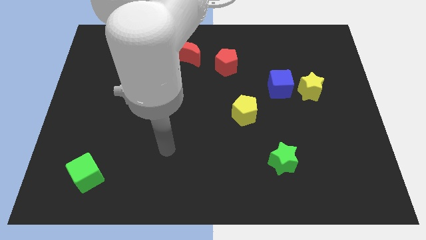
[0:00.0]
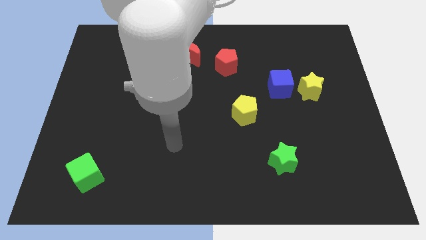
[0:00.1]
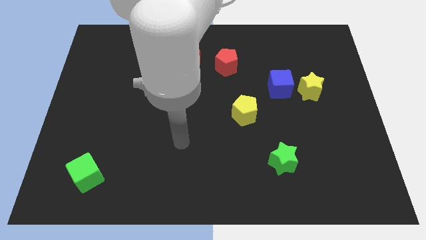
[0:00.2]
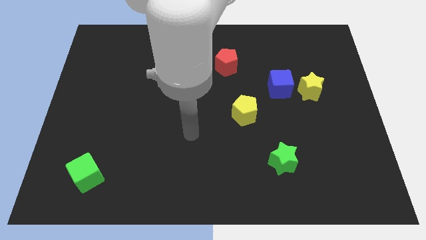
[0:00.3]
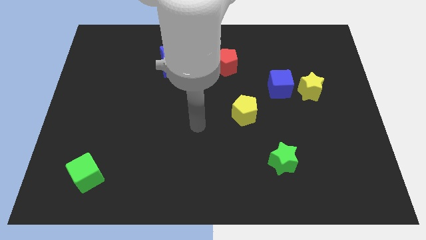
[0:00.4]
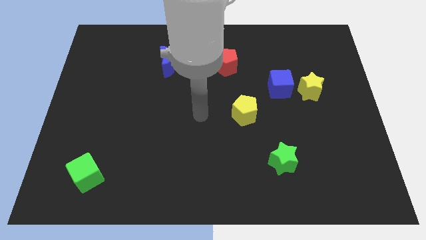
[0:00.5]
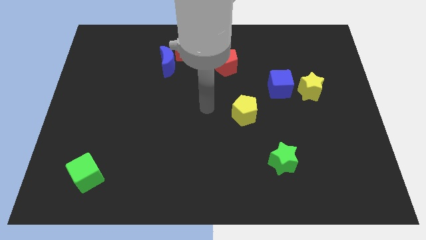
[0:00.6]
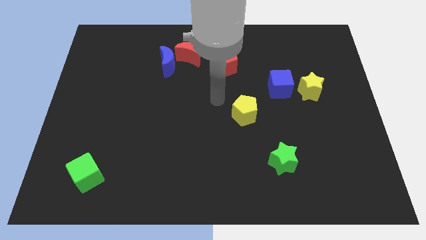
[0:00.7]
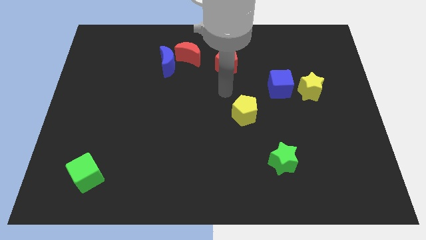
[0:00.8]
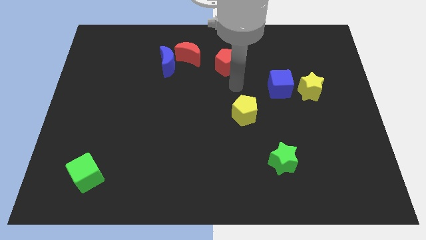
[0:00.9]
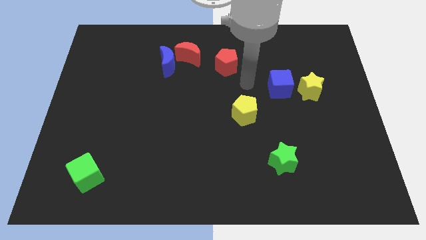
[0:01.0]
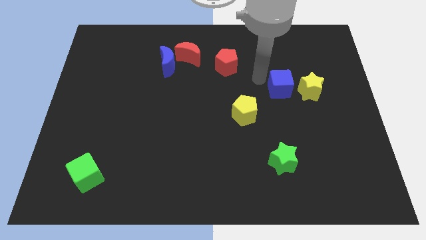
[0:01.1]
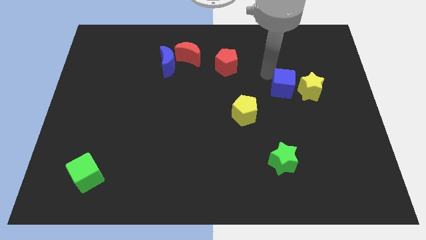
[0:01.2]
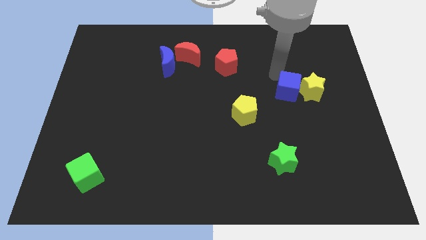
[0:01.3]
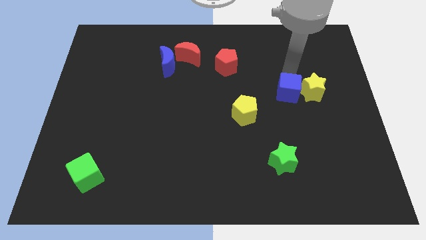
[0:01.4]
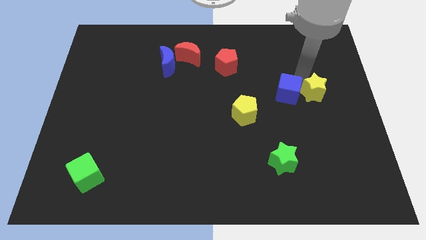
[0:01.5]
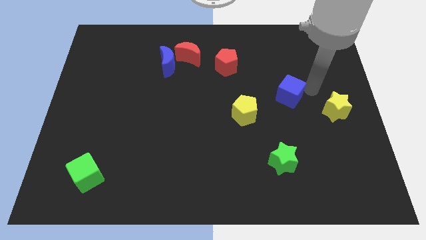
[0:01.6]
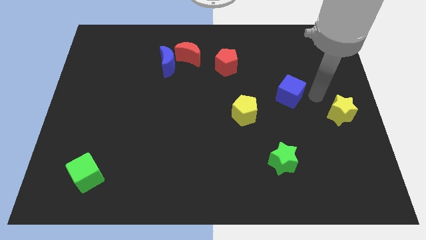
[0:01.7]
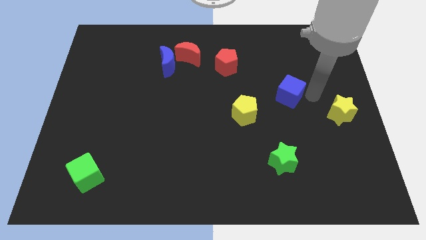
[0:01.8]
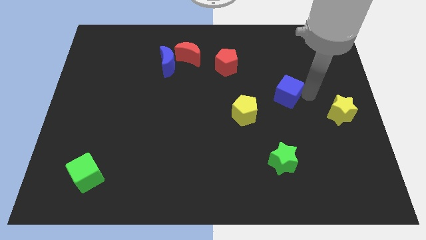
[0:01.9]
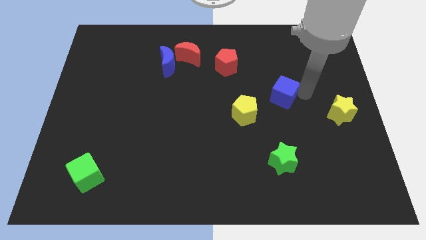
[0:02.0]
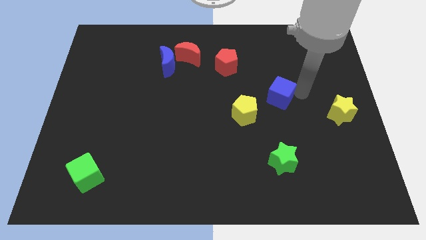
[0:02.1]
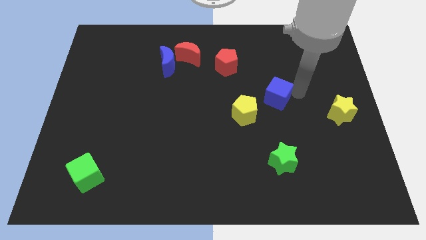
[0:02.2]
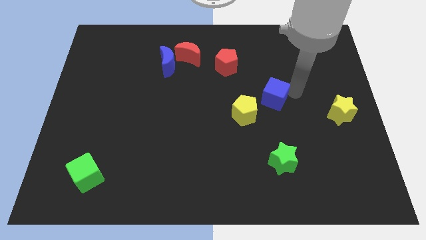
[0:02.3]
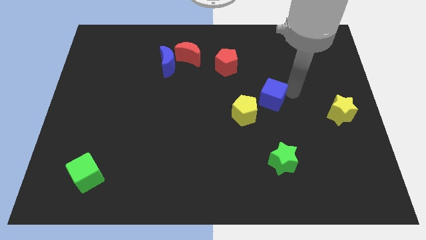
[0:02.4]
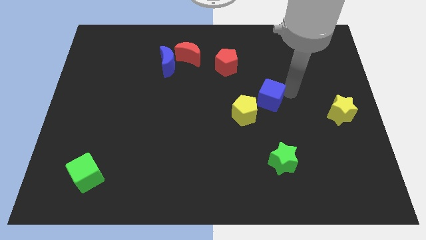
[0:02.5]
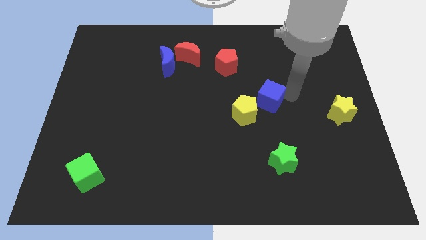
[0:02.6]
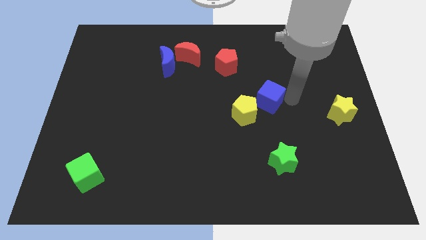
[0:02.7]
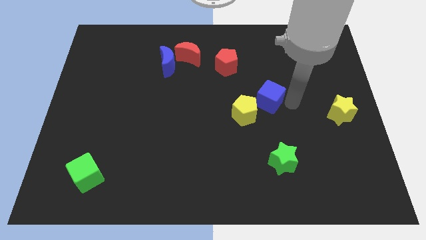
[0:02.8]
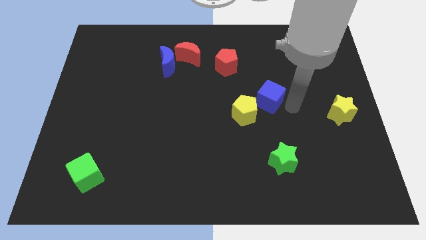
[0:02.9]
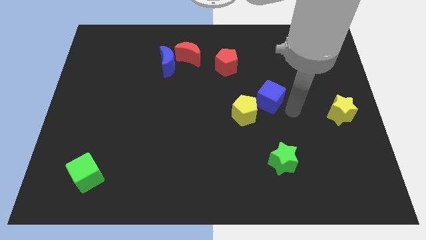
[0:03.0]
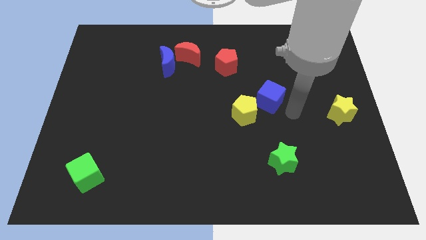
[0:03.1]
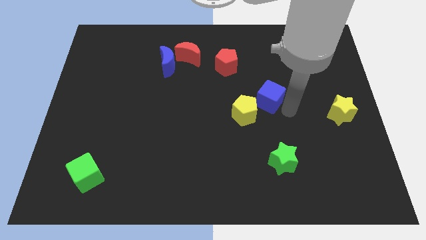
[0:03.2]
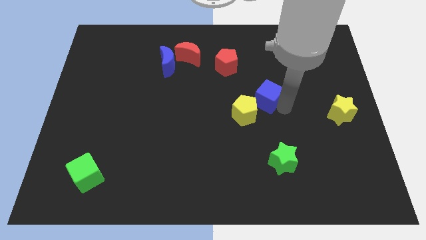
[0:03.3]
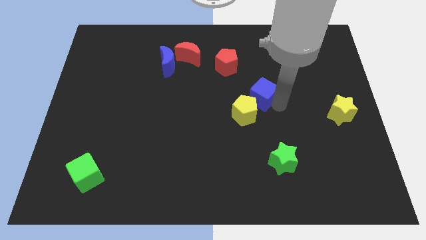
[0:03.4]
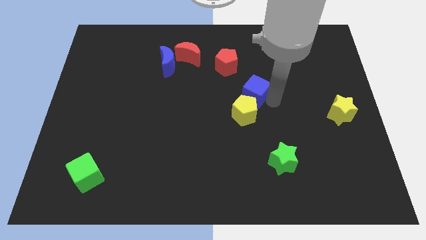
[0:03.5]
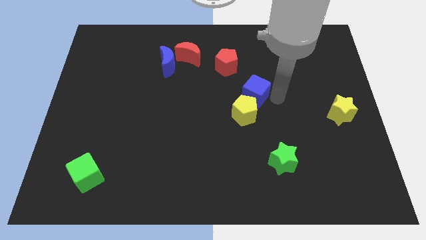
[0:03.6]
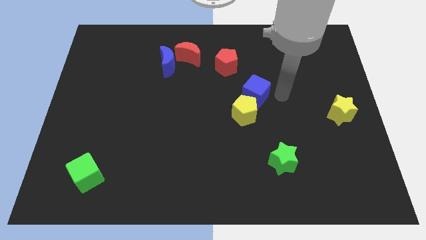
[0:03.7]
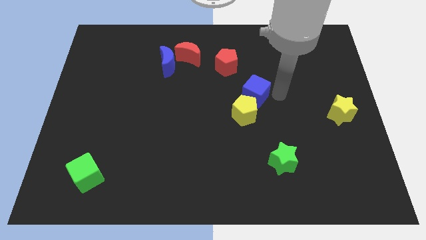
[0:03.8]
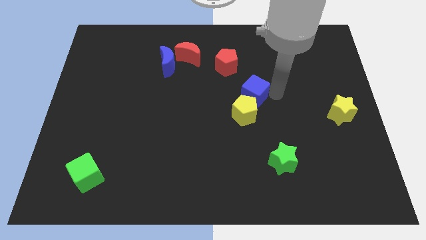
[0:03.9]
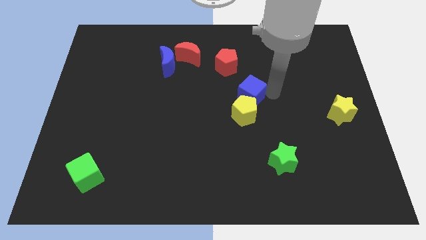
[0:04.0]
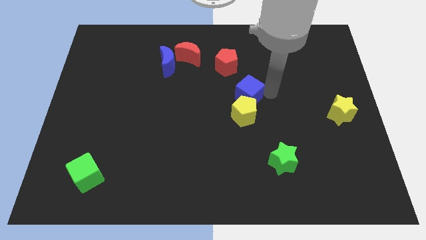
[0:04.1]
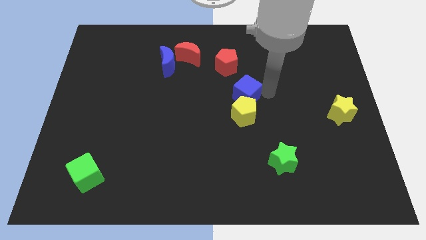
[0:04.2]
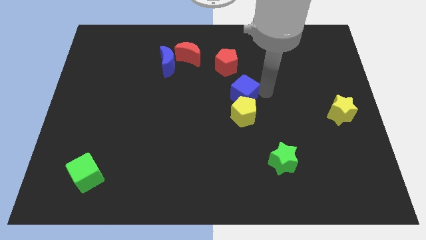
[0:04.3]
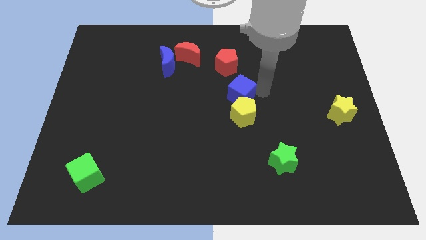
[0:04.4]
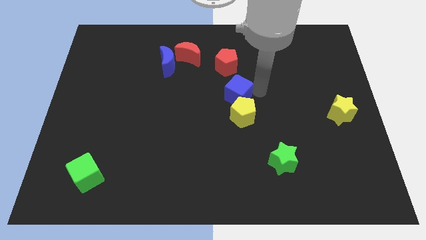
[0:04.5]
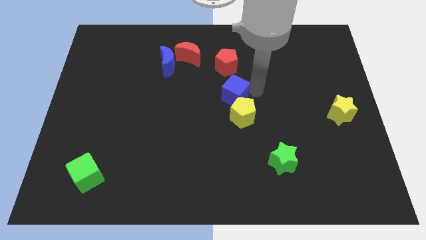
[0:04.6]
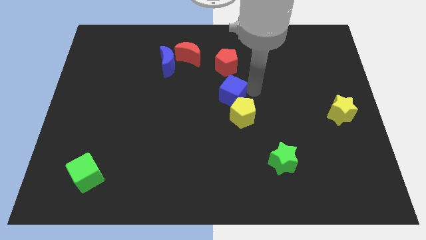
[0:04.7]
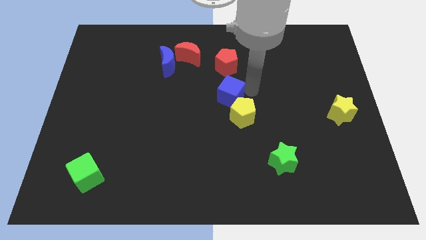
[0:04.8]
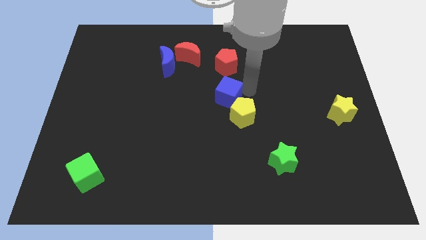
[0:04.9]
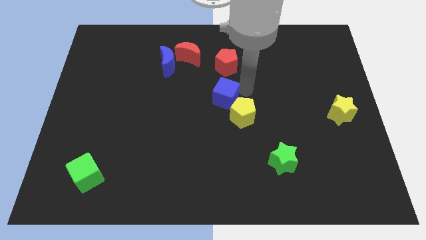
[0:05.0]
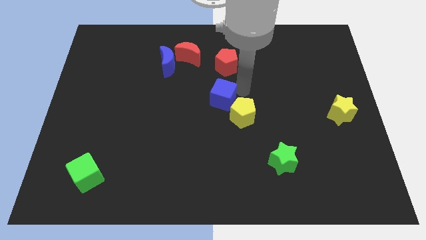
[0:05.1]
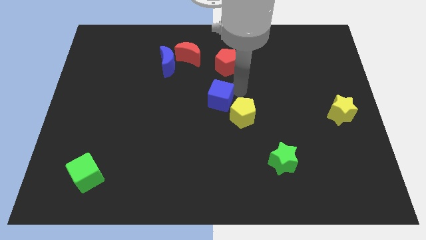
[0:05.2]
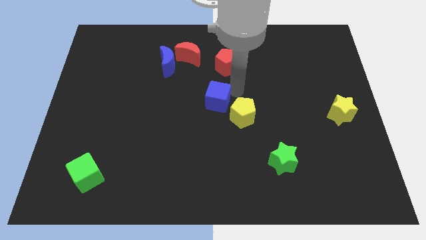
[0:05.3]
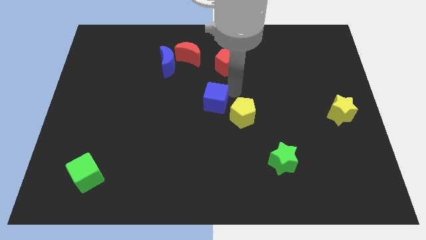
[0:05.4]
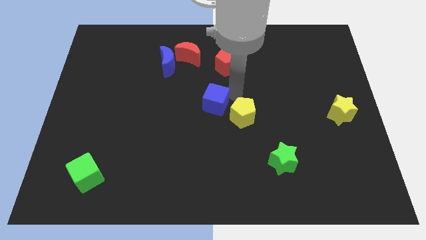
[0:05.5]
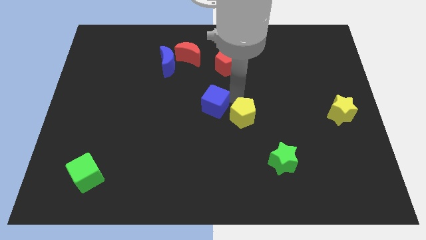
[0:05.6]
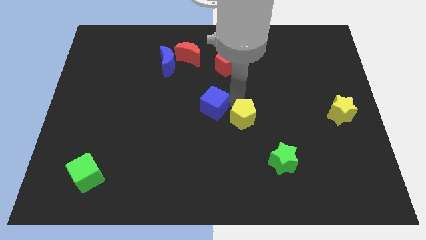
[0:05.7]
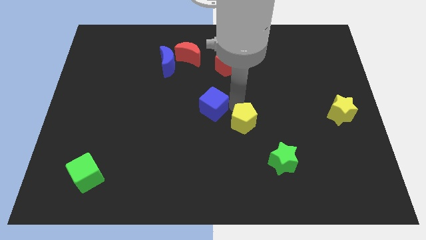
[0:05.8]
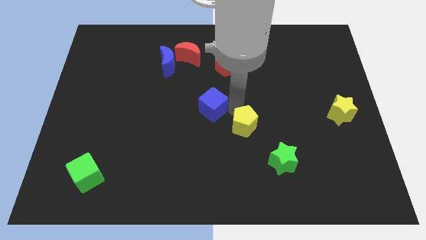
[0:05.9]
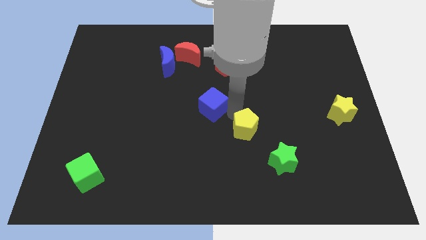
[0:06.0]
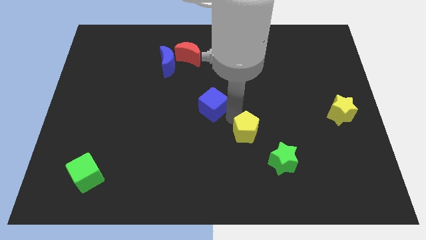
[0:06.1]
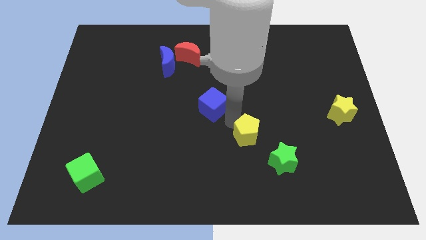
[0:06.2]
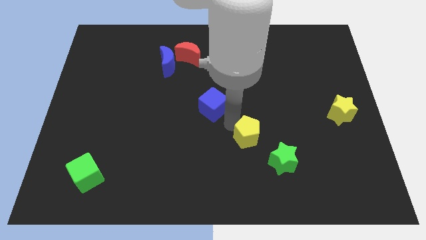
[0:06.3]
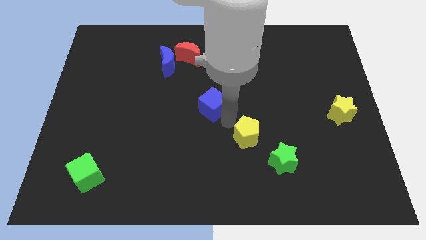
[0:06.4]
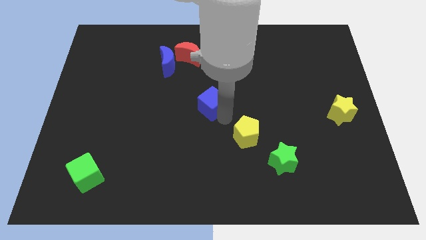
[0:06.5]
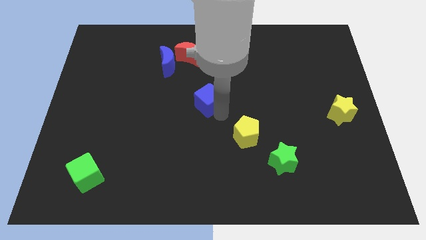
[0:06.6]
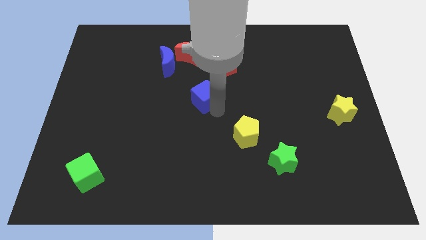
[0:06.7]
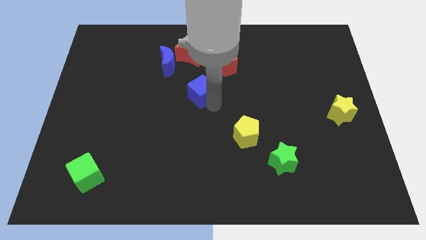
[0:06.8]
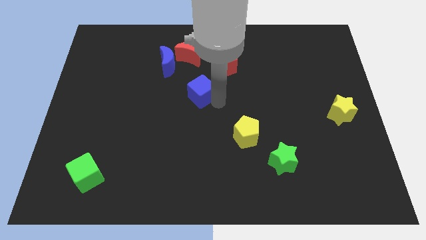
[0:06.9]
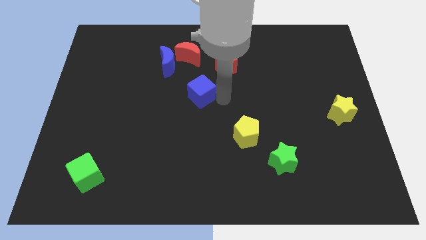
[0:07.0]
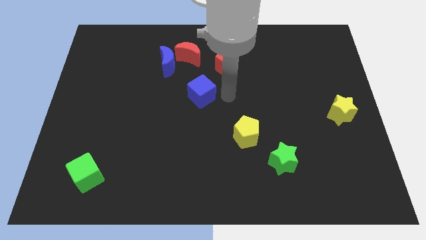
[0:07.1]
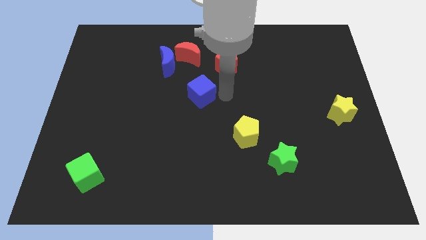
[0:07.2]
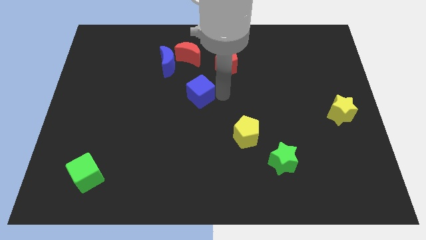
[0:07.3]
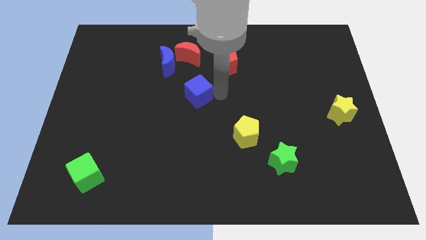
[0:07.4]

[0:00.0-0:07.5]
slide the blue cube to the left

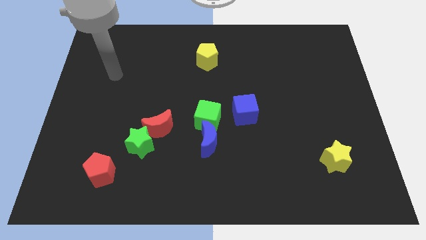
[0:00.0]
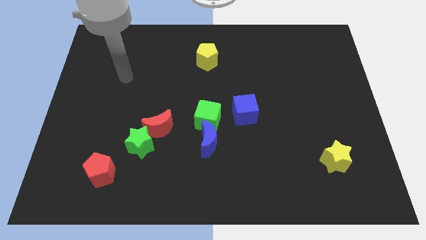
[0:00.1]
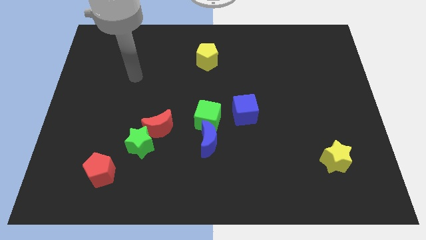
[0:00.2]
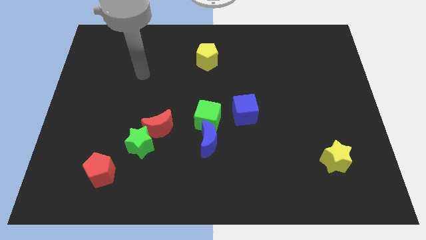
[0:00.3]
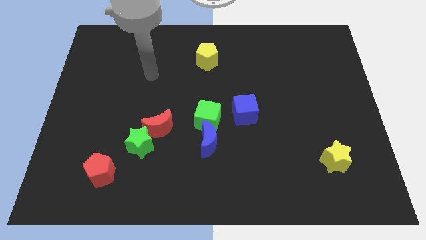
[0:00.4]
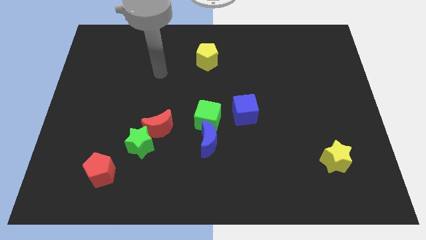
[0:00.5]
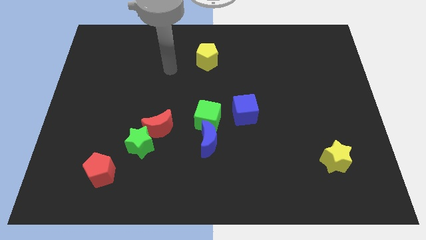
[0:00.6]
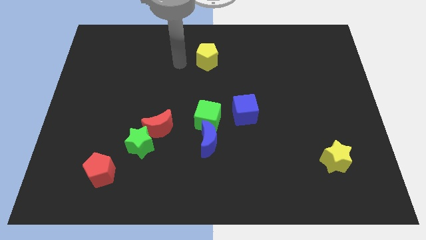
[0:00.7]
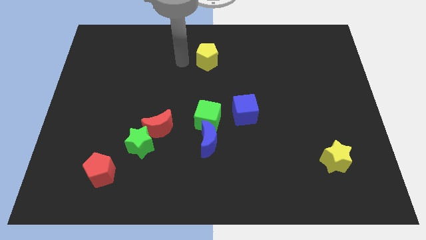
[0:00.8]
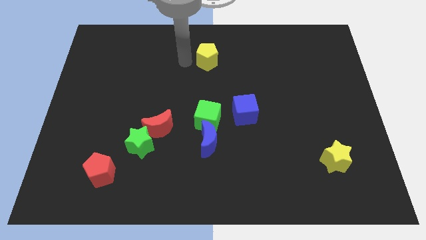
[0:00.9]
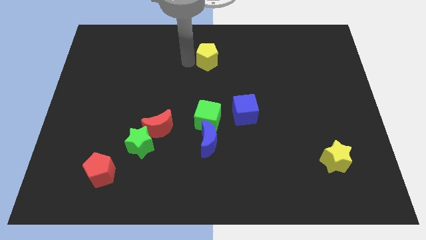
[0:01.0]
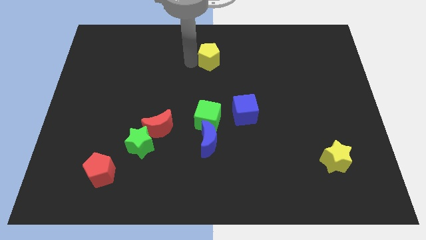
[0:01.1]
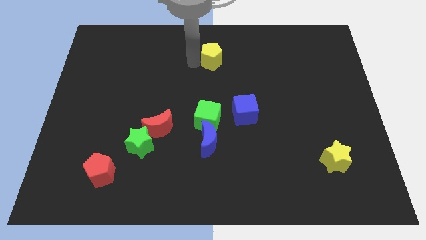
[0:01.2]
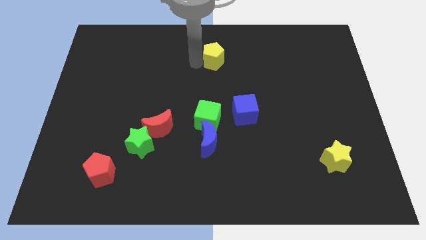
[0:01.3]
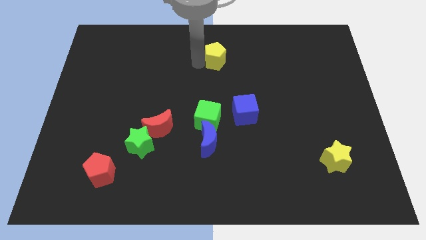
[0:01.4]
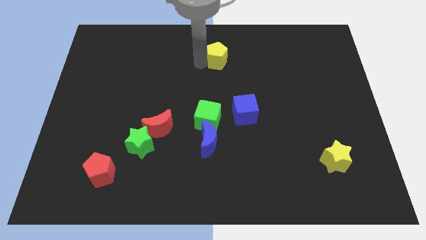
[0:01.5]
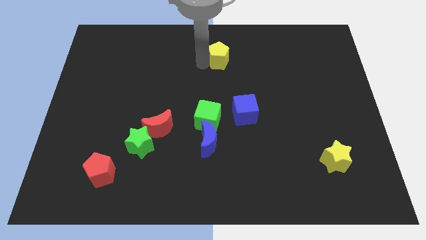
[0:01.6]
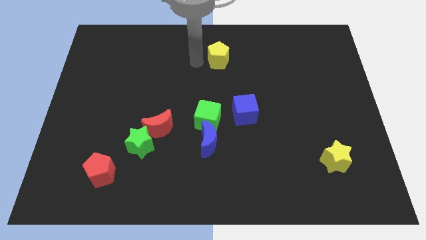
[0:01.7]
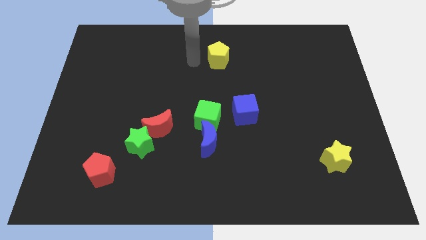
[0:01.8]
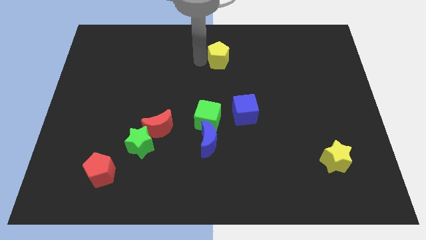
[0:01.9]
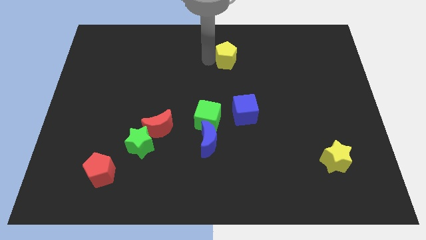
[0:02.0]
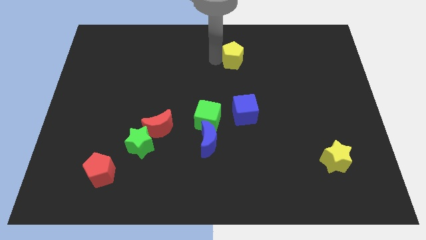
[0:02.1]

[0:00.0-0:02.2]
slightly move the yellow pentagon to the right
